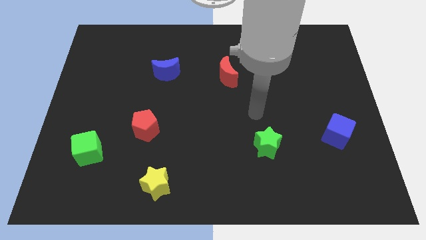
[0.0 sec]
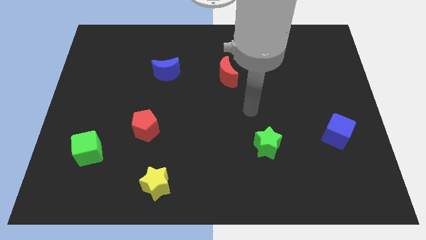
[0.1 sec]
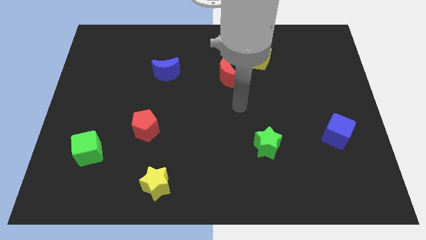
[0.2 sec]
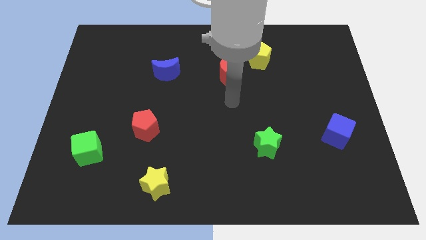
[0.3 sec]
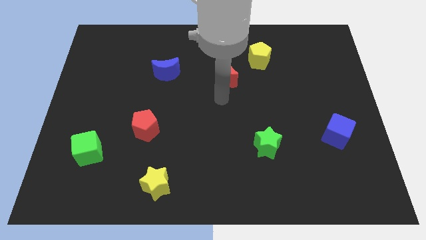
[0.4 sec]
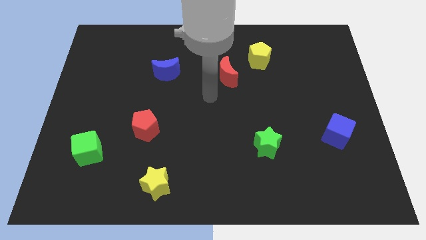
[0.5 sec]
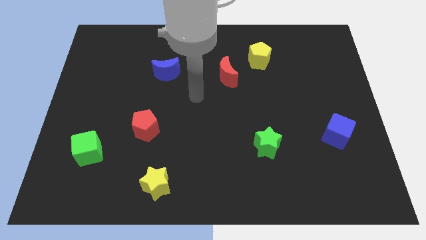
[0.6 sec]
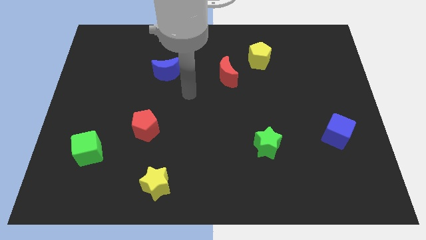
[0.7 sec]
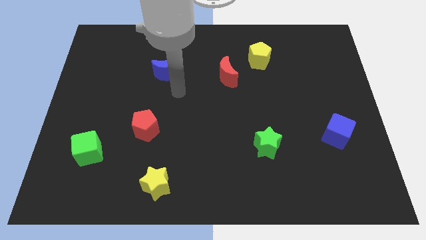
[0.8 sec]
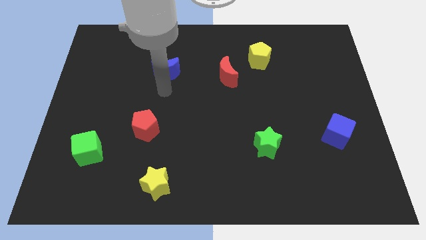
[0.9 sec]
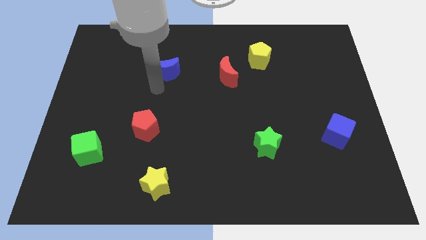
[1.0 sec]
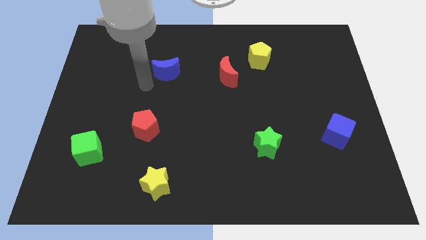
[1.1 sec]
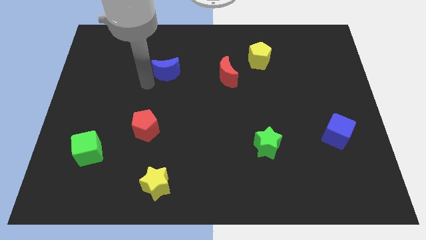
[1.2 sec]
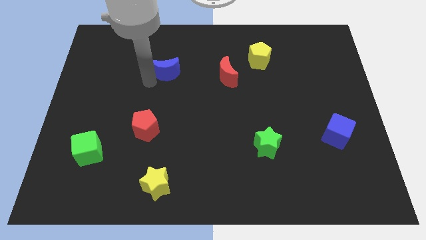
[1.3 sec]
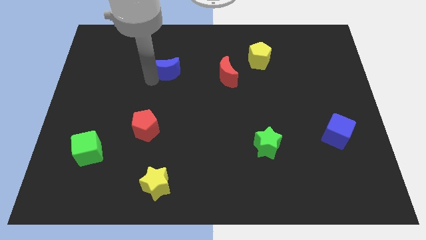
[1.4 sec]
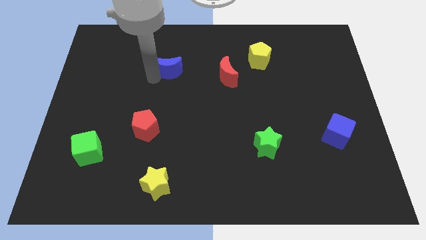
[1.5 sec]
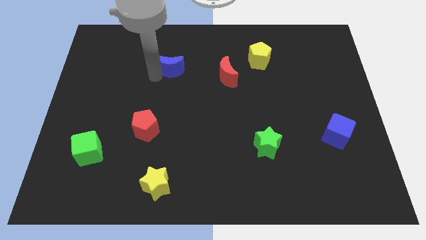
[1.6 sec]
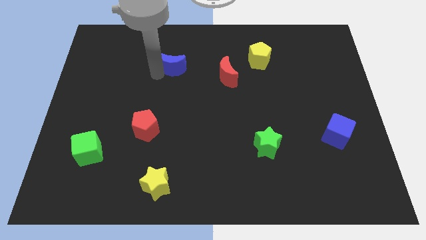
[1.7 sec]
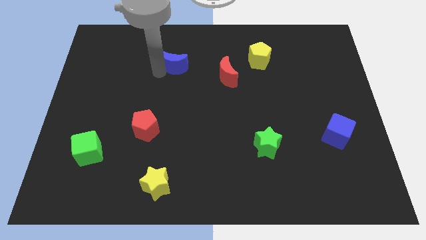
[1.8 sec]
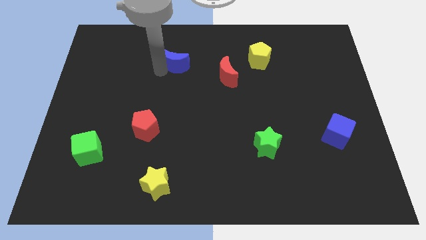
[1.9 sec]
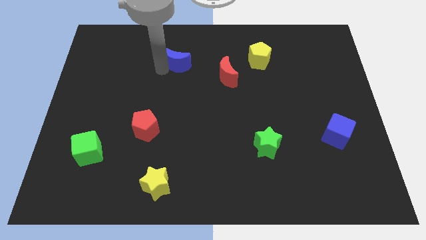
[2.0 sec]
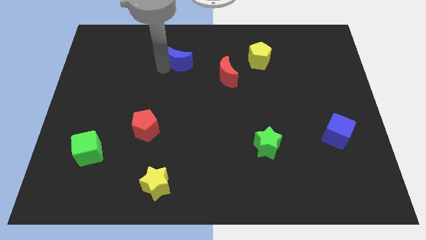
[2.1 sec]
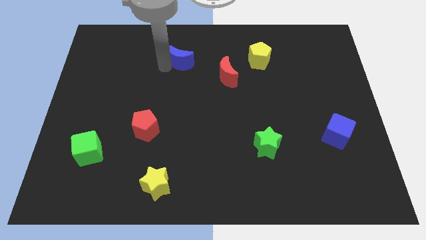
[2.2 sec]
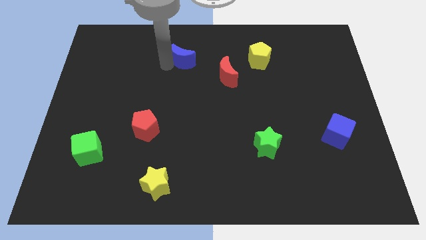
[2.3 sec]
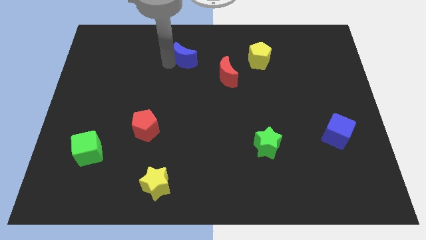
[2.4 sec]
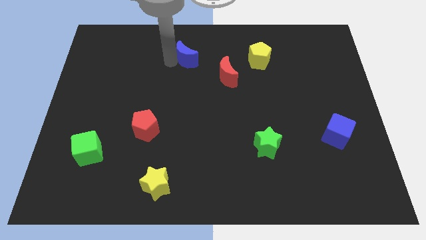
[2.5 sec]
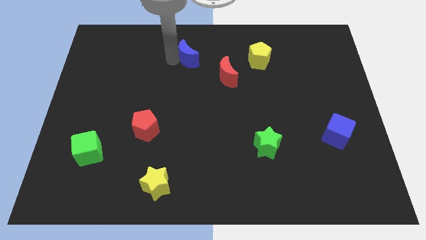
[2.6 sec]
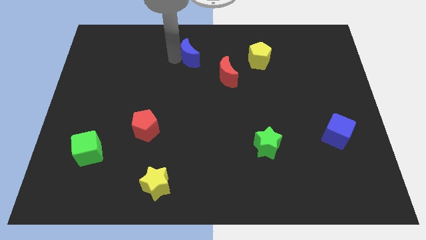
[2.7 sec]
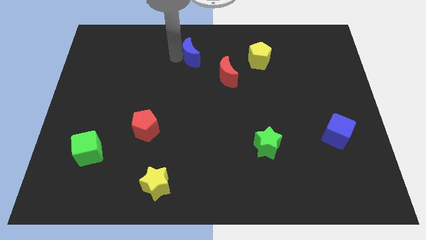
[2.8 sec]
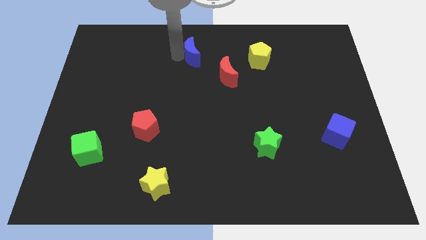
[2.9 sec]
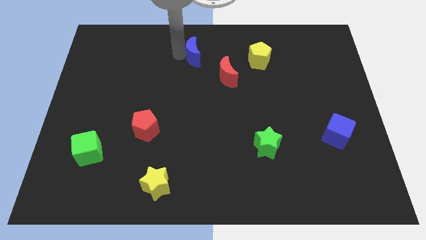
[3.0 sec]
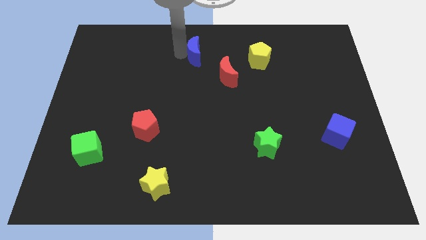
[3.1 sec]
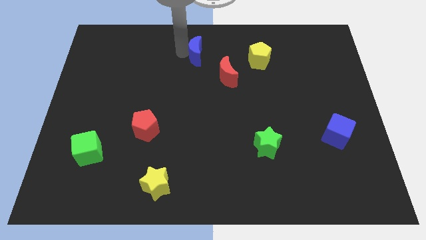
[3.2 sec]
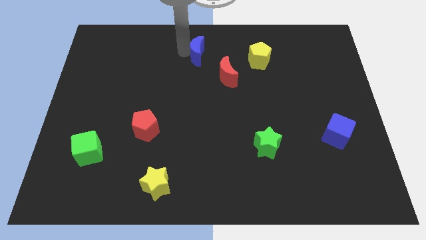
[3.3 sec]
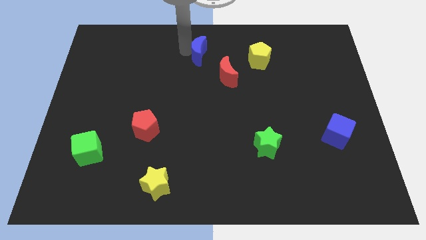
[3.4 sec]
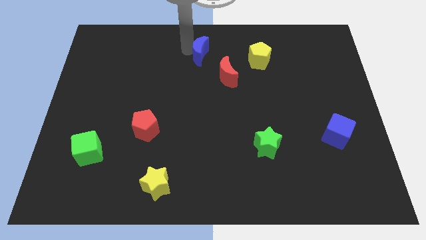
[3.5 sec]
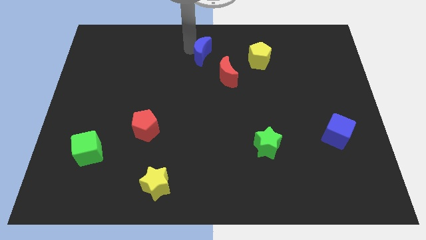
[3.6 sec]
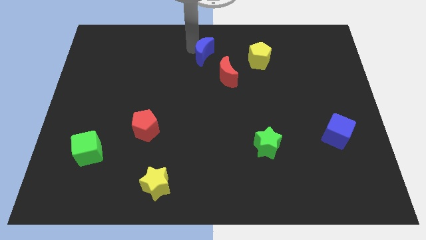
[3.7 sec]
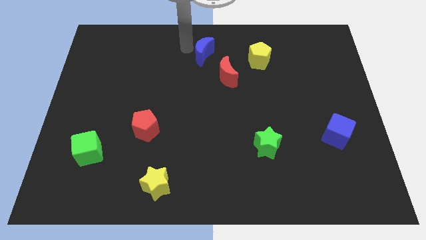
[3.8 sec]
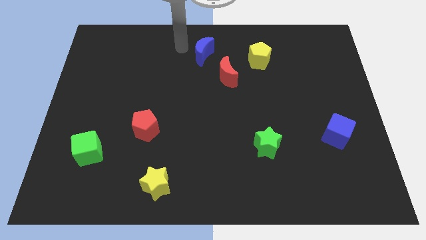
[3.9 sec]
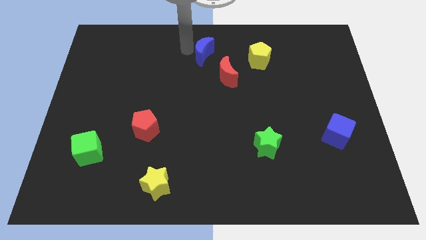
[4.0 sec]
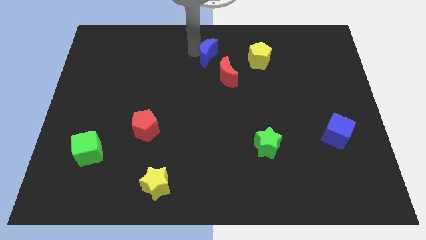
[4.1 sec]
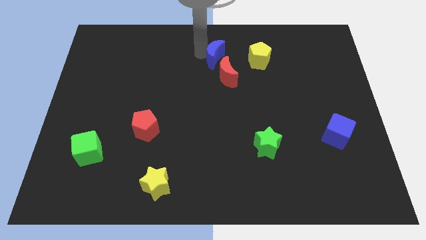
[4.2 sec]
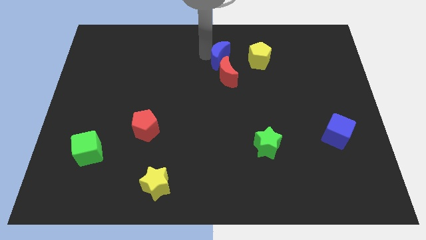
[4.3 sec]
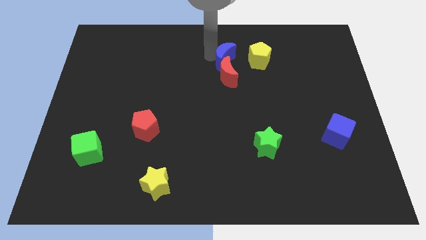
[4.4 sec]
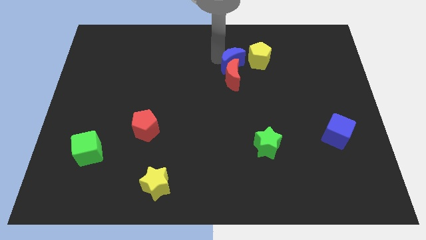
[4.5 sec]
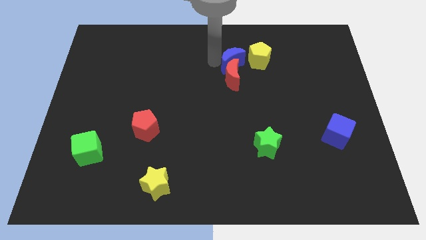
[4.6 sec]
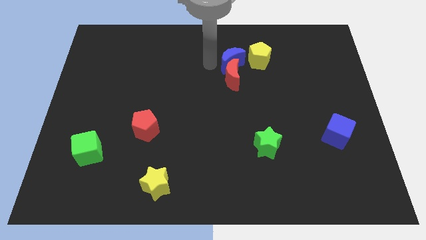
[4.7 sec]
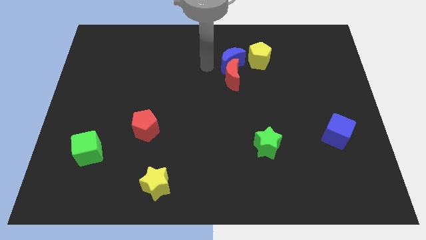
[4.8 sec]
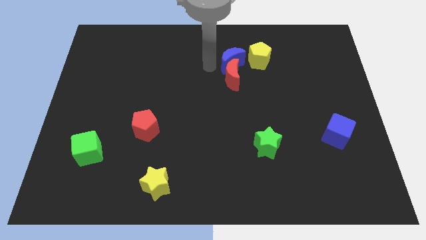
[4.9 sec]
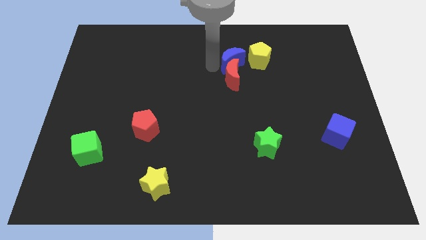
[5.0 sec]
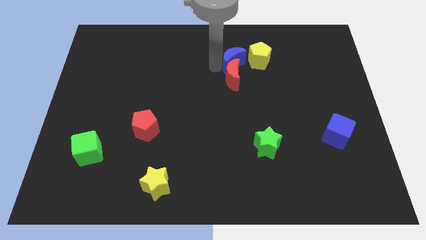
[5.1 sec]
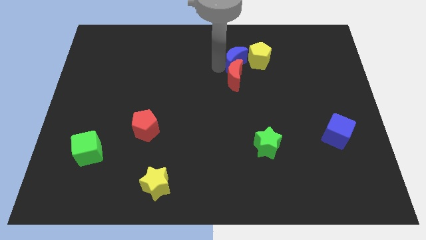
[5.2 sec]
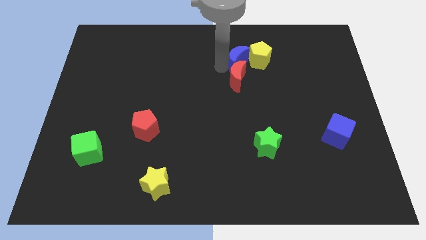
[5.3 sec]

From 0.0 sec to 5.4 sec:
put the blue moon to the yellow pentagon

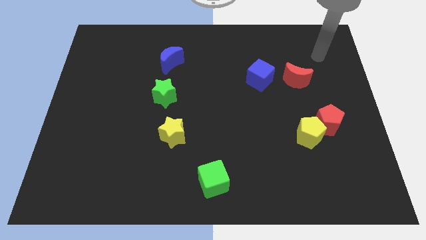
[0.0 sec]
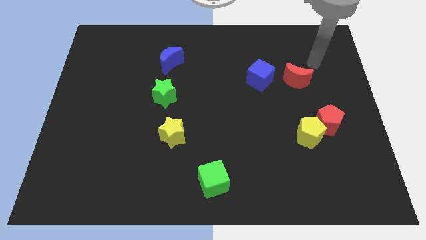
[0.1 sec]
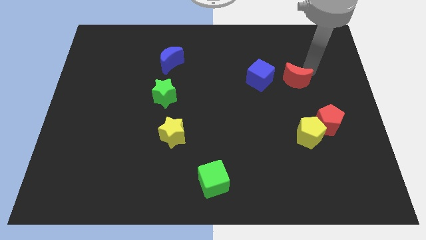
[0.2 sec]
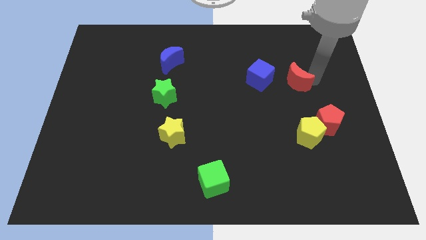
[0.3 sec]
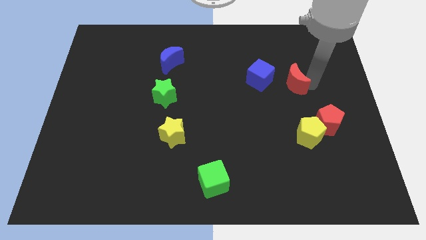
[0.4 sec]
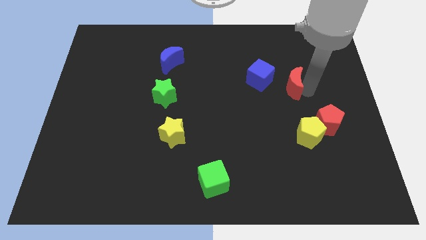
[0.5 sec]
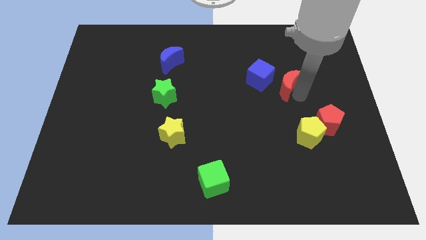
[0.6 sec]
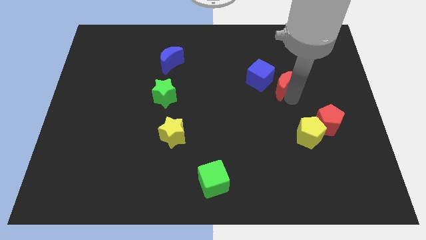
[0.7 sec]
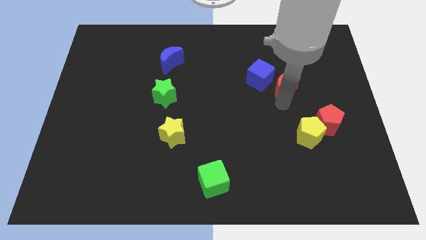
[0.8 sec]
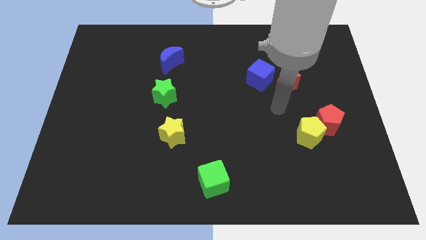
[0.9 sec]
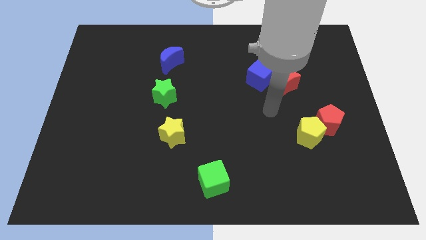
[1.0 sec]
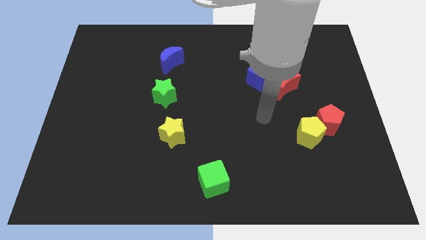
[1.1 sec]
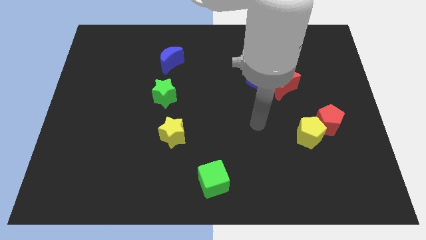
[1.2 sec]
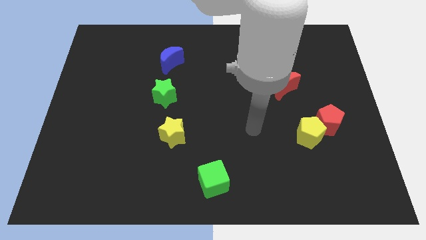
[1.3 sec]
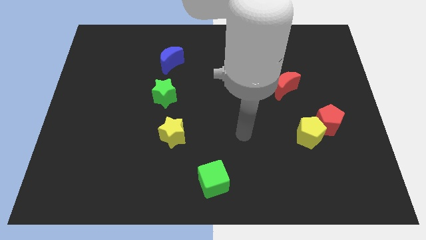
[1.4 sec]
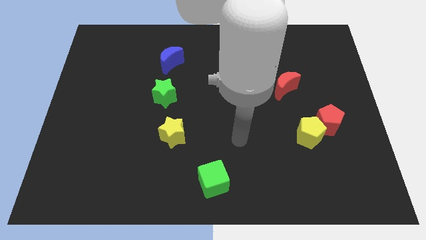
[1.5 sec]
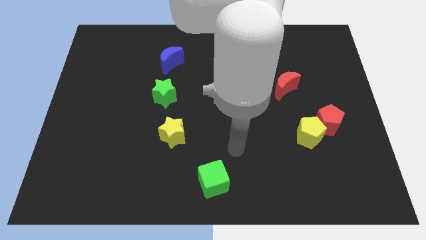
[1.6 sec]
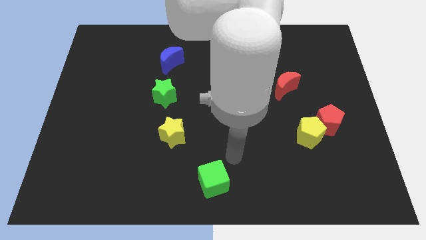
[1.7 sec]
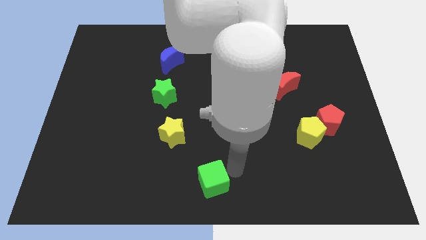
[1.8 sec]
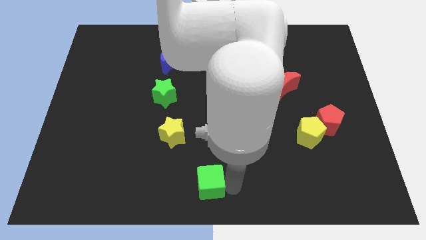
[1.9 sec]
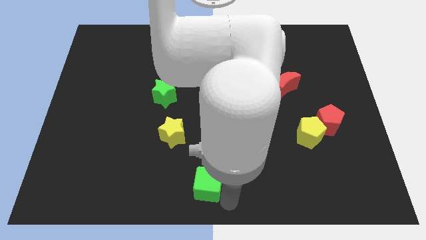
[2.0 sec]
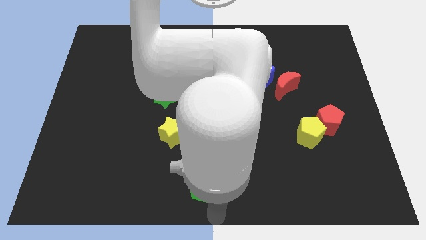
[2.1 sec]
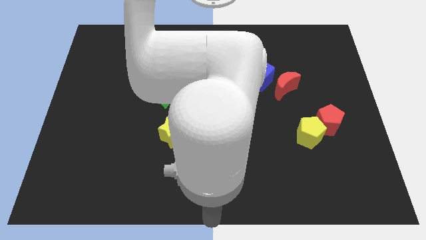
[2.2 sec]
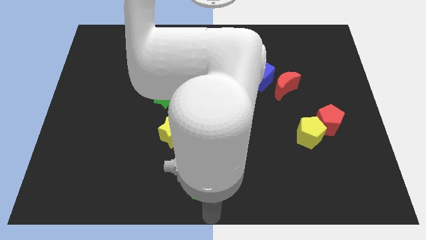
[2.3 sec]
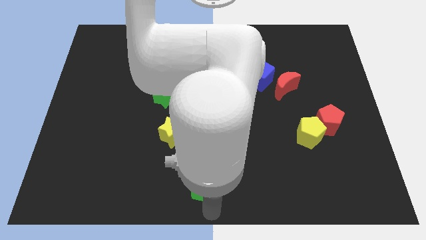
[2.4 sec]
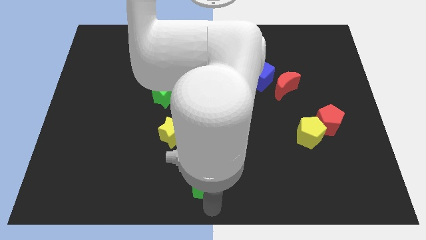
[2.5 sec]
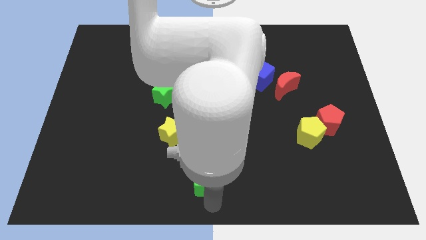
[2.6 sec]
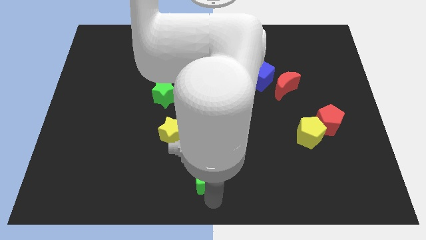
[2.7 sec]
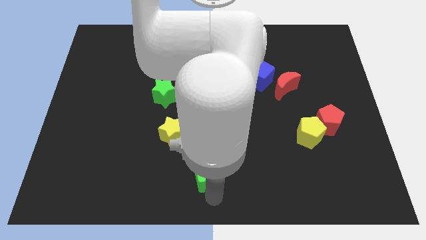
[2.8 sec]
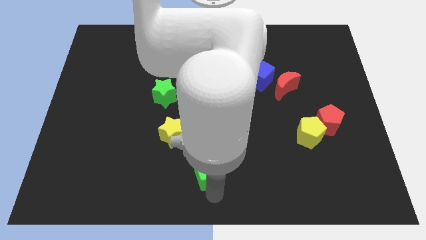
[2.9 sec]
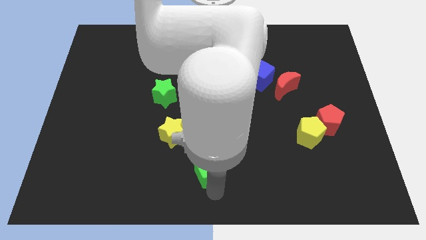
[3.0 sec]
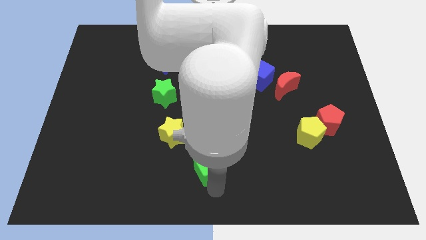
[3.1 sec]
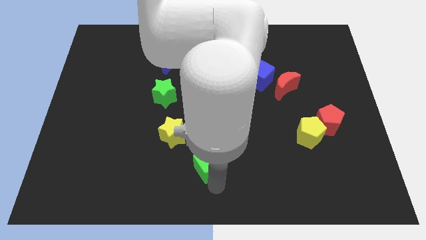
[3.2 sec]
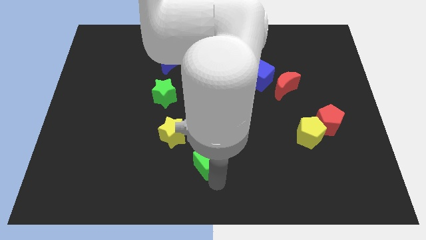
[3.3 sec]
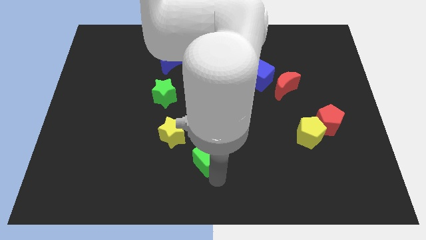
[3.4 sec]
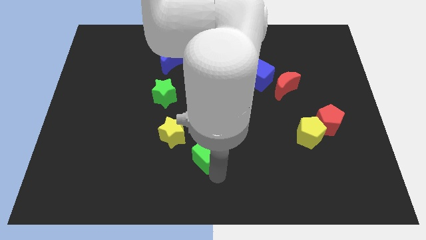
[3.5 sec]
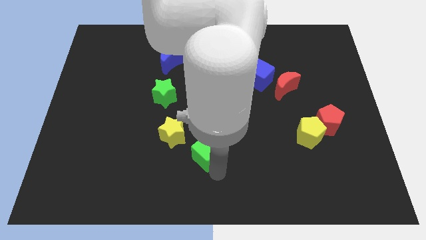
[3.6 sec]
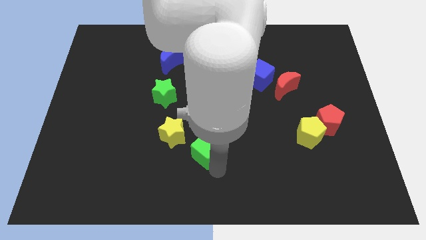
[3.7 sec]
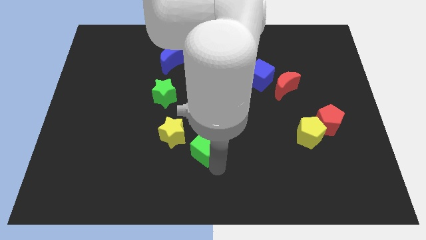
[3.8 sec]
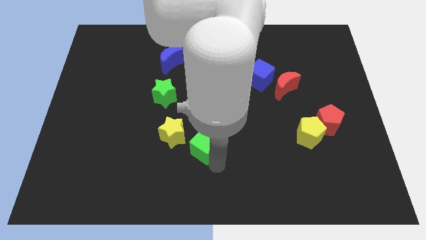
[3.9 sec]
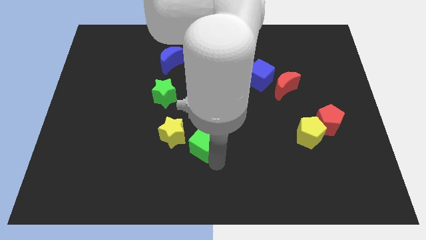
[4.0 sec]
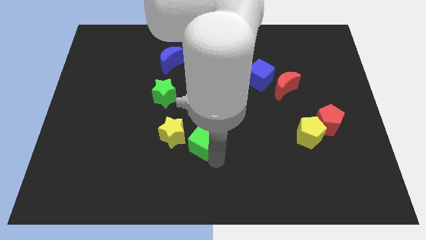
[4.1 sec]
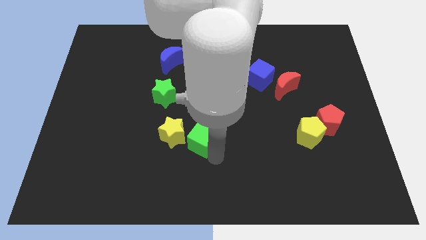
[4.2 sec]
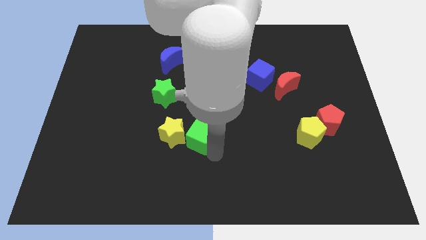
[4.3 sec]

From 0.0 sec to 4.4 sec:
push the green cube to the yellow star
